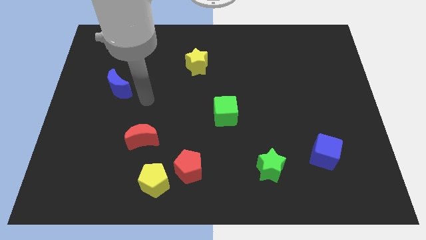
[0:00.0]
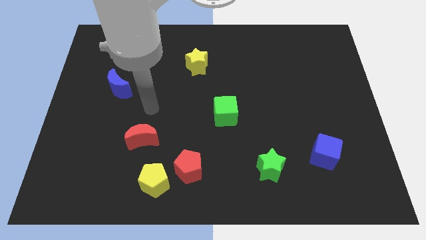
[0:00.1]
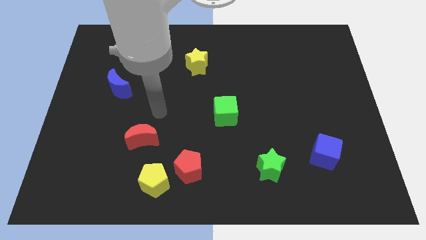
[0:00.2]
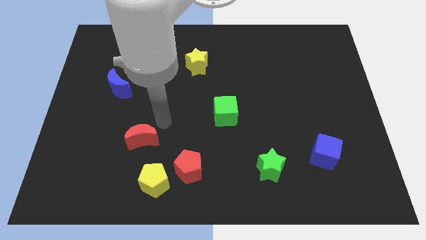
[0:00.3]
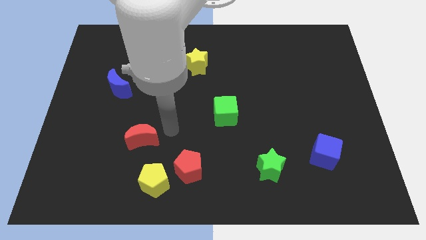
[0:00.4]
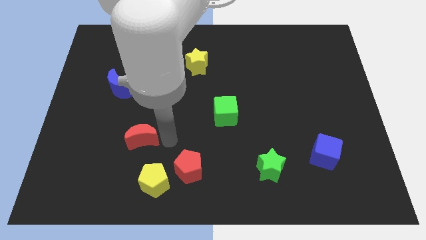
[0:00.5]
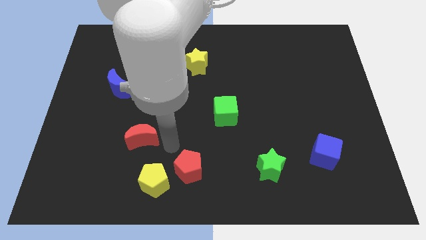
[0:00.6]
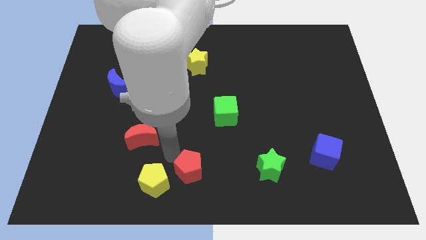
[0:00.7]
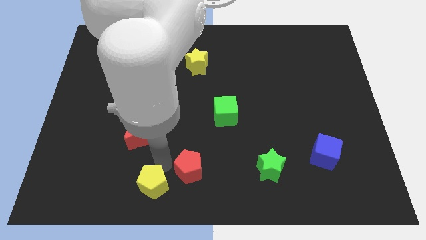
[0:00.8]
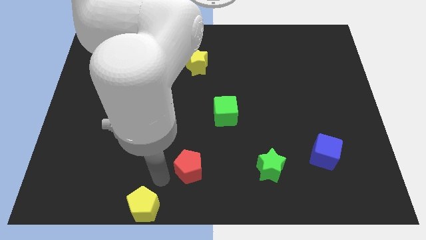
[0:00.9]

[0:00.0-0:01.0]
move the red pentagon away from the yellow pentagon

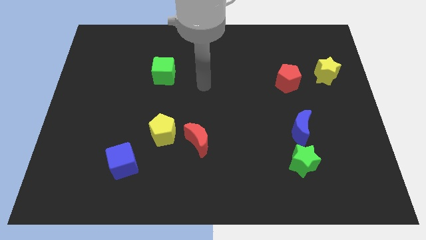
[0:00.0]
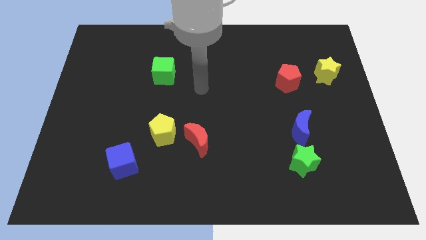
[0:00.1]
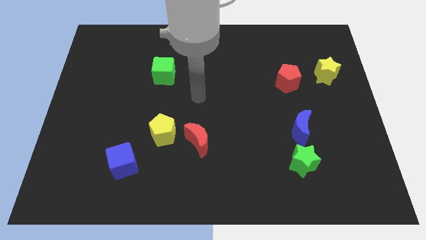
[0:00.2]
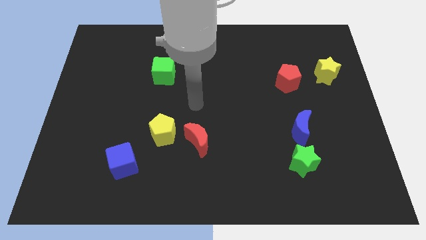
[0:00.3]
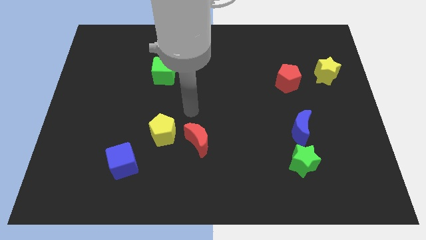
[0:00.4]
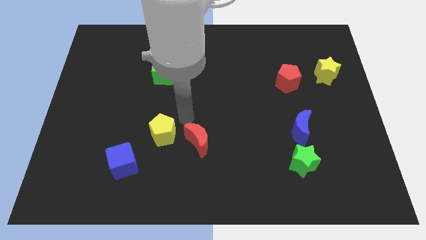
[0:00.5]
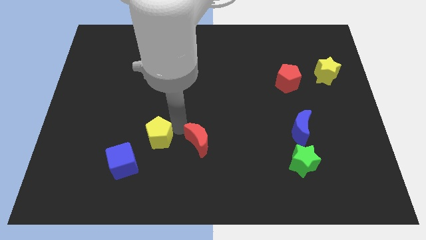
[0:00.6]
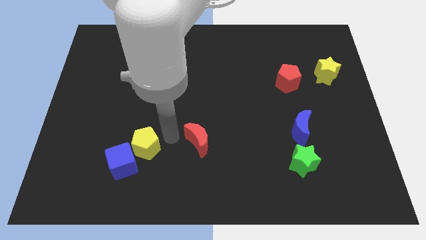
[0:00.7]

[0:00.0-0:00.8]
separate the red moon from the yellow pentagon

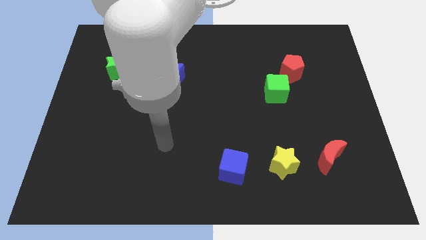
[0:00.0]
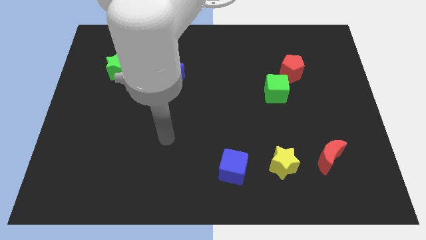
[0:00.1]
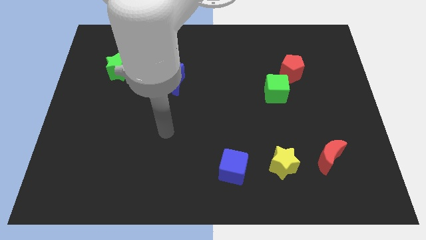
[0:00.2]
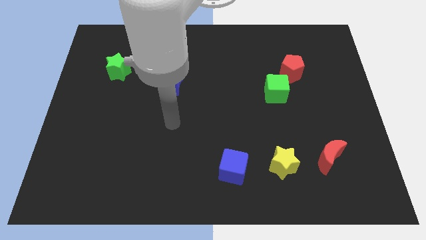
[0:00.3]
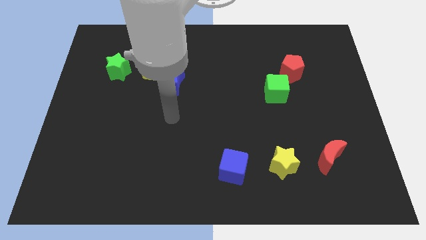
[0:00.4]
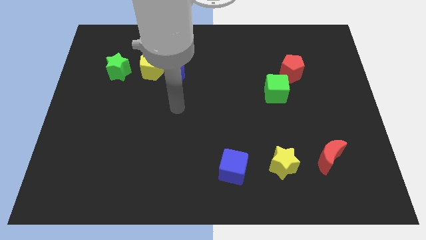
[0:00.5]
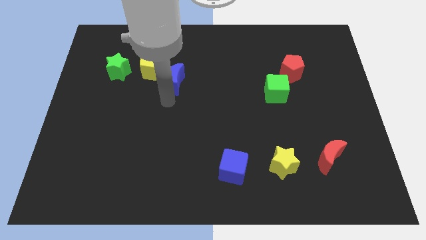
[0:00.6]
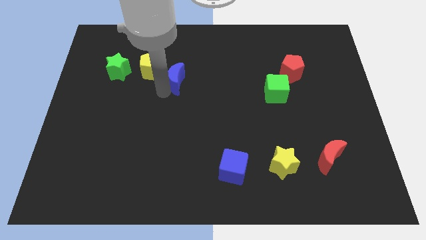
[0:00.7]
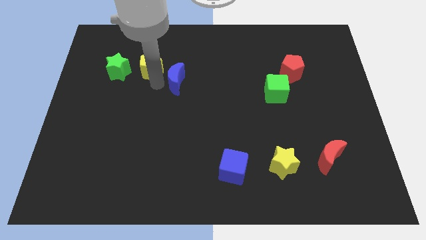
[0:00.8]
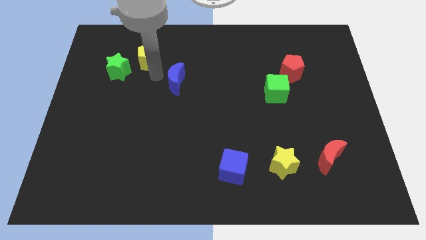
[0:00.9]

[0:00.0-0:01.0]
move the blue moon away from the yellow pentagon

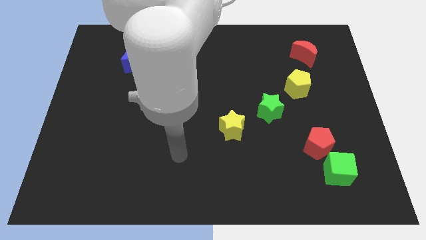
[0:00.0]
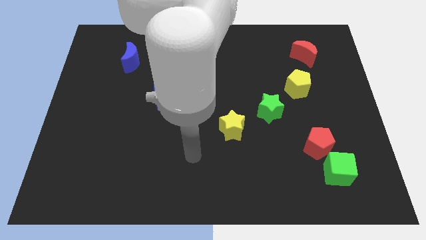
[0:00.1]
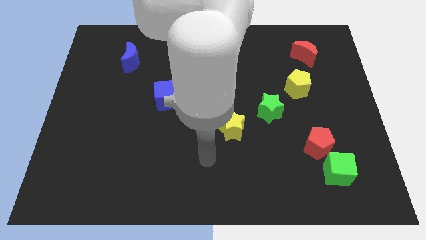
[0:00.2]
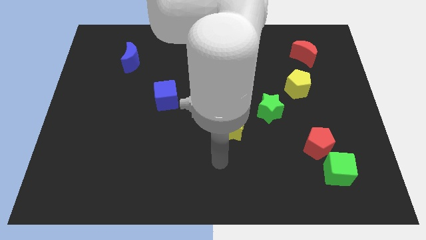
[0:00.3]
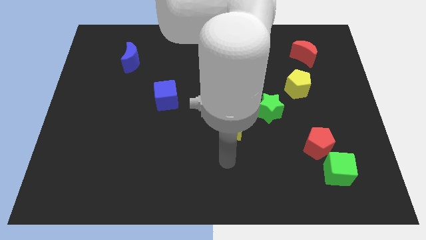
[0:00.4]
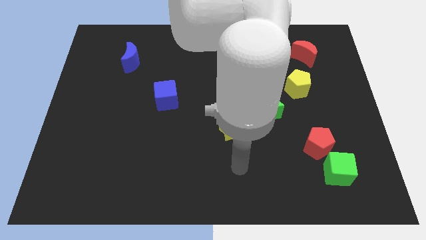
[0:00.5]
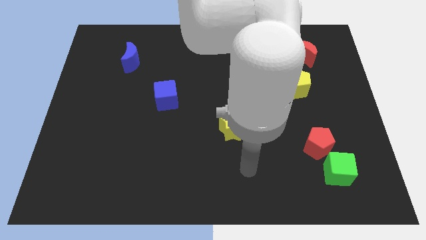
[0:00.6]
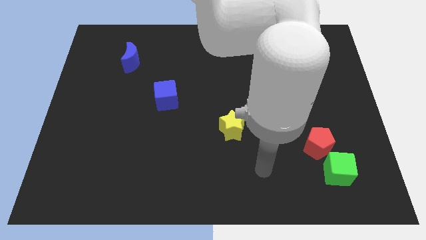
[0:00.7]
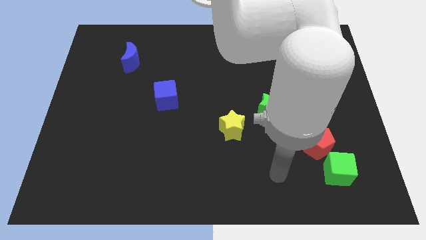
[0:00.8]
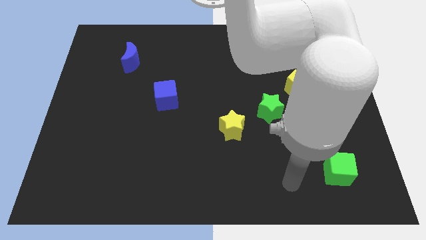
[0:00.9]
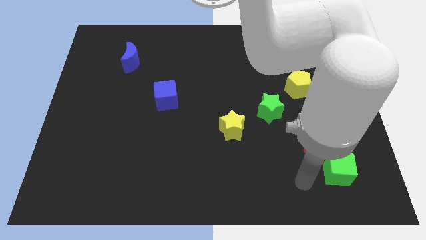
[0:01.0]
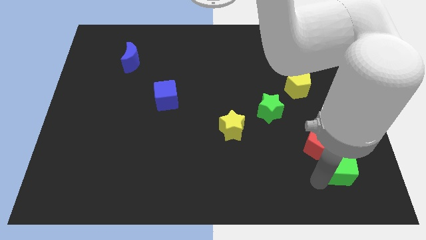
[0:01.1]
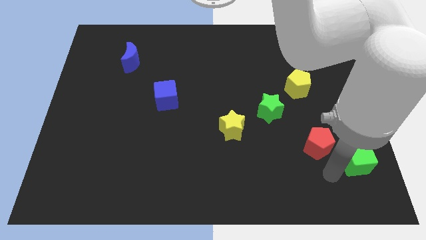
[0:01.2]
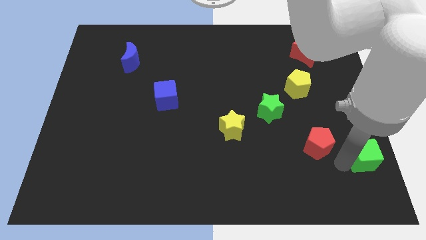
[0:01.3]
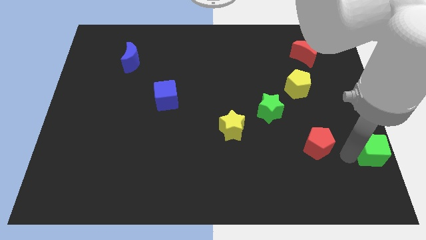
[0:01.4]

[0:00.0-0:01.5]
move the red pentagon away from the green cube

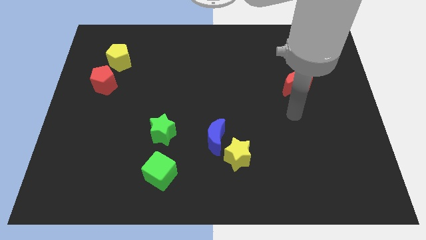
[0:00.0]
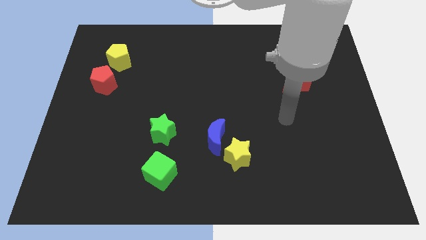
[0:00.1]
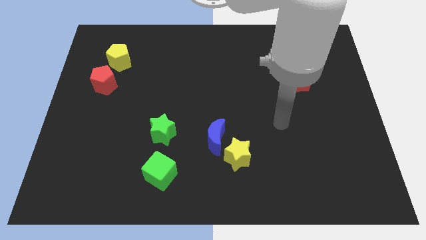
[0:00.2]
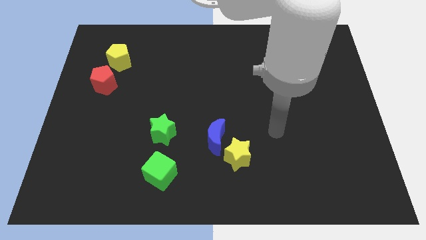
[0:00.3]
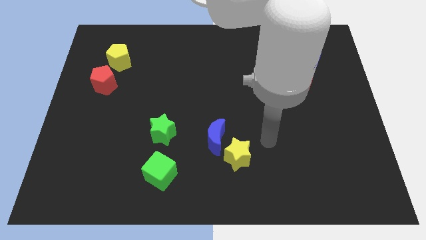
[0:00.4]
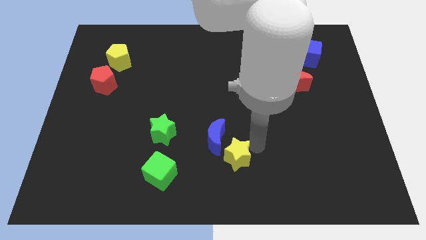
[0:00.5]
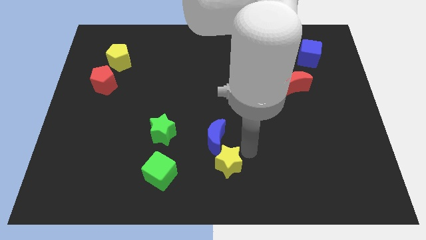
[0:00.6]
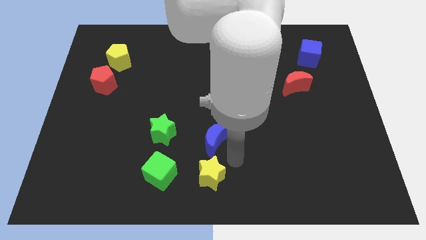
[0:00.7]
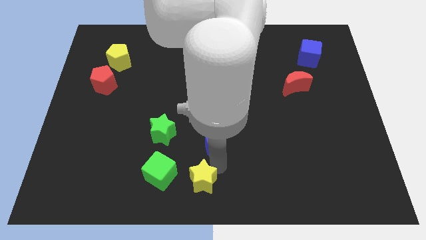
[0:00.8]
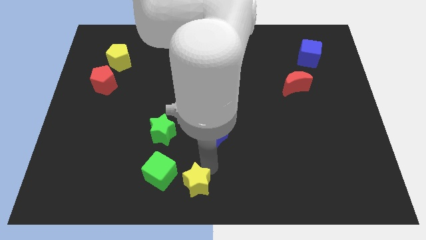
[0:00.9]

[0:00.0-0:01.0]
pull the blue moon apart from the yellow star

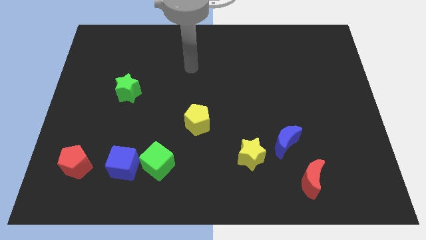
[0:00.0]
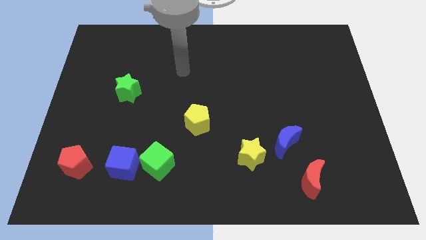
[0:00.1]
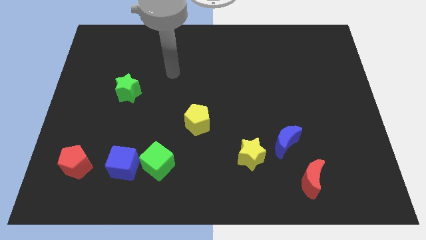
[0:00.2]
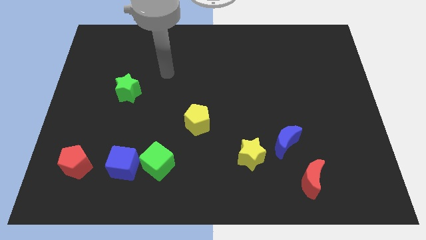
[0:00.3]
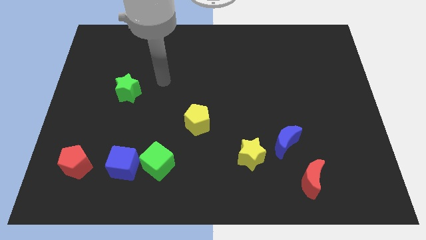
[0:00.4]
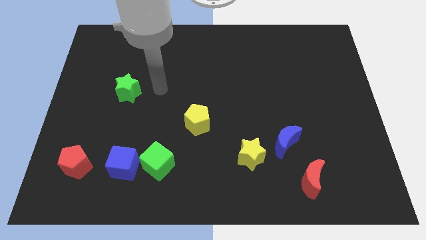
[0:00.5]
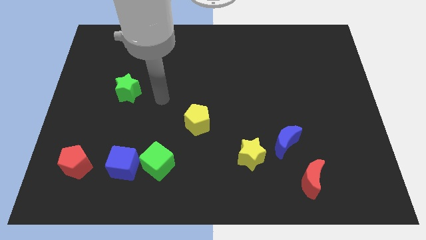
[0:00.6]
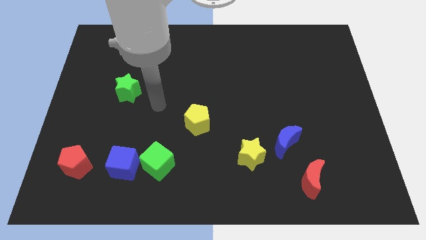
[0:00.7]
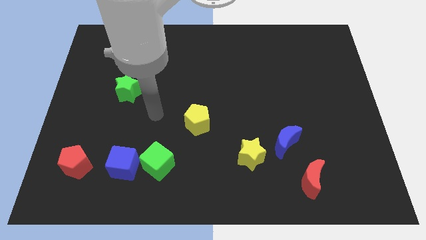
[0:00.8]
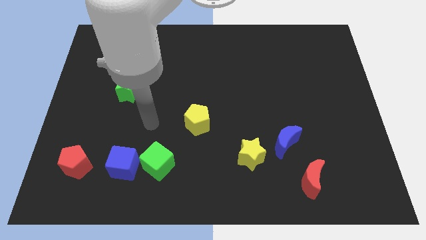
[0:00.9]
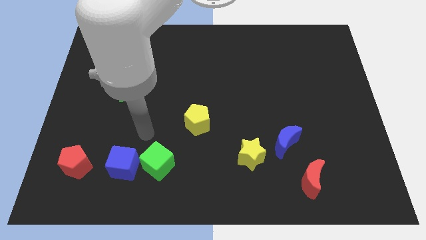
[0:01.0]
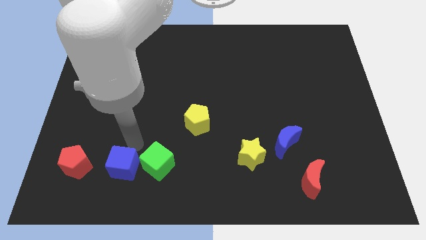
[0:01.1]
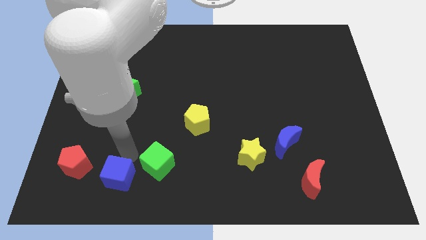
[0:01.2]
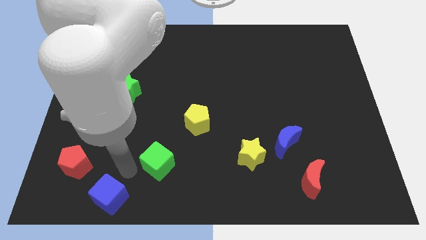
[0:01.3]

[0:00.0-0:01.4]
move the green cube away from the blue cube

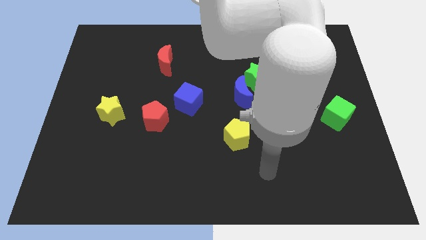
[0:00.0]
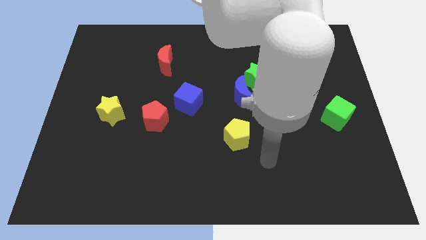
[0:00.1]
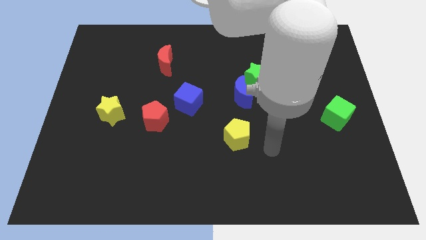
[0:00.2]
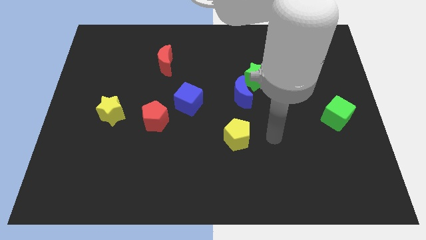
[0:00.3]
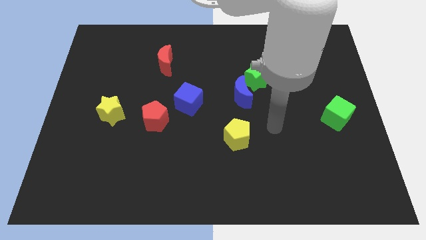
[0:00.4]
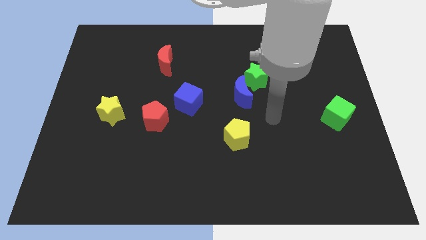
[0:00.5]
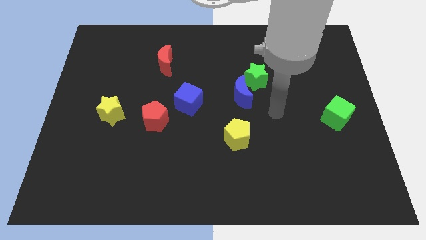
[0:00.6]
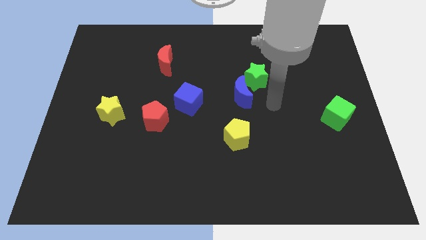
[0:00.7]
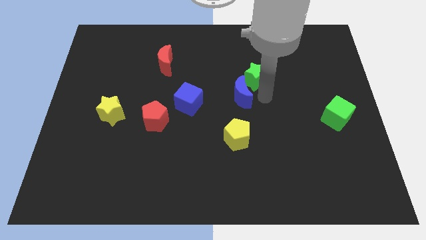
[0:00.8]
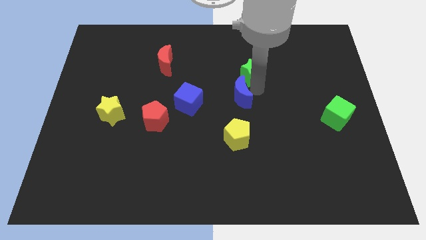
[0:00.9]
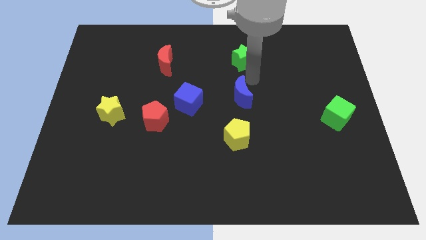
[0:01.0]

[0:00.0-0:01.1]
pull the blue moon apart from the green star

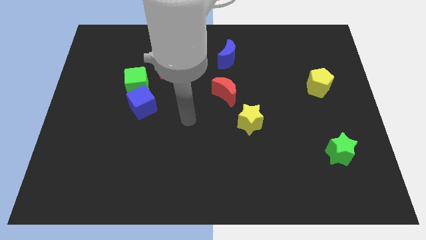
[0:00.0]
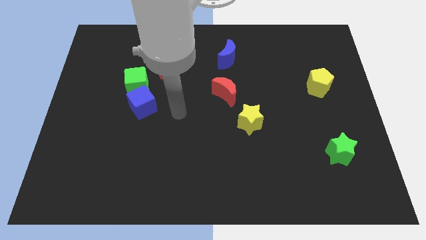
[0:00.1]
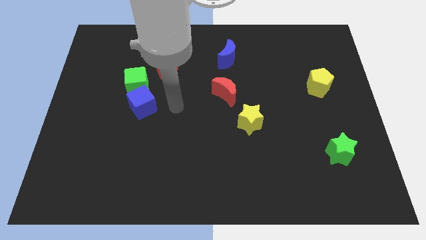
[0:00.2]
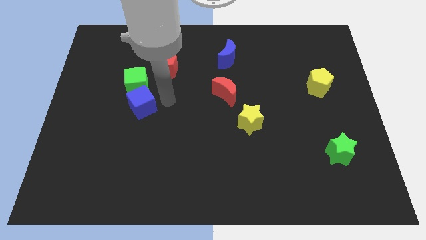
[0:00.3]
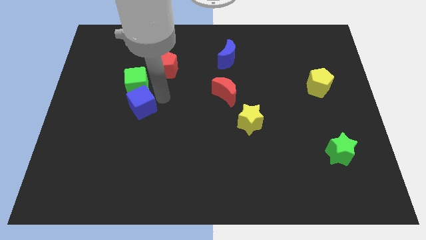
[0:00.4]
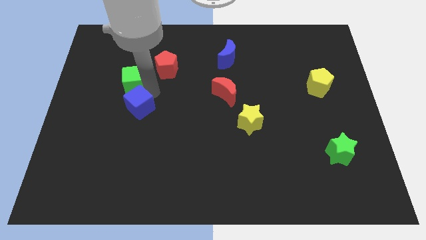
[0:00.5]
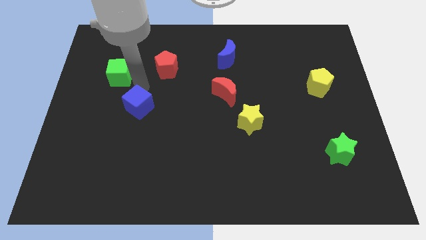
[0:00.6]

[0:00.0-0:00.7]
move the blue cube away from the green cube

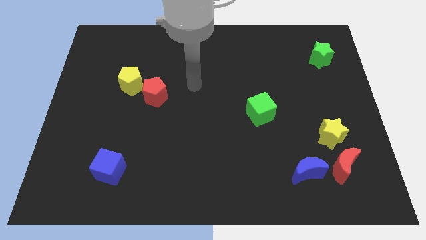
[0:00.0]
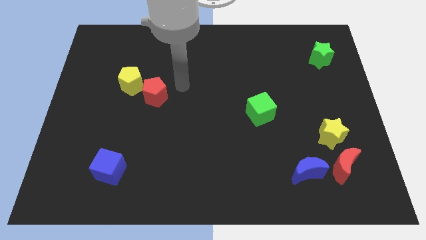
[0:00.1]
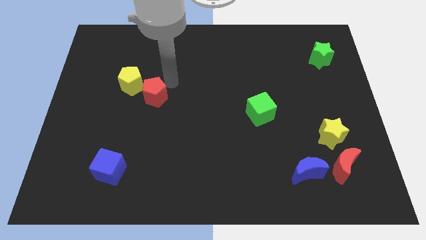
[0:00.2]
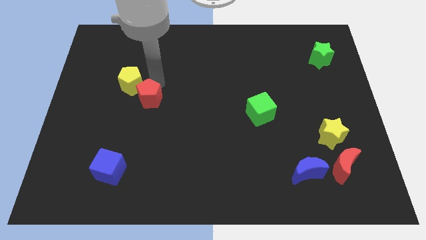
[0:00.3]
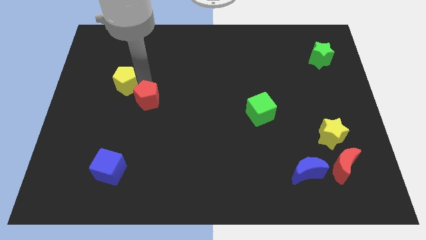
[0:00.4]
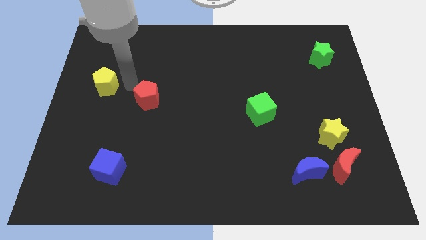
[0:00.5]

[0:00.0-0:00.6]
pull the red pentagon apart from the yellow pentagon

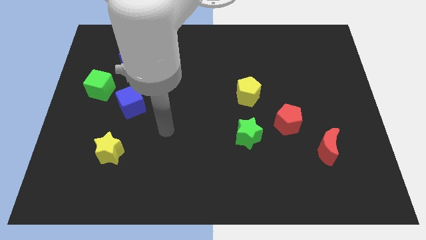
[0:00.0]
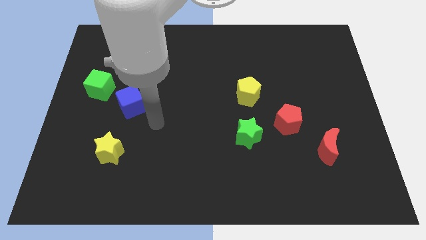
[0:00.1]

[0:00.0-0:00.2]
pull the blue cube apart from the green cube
